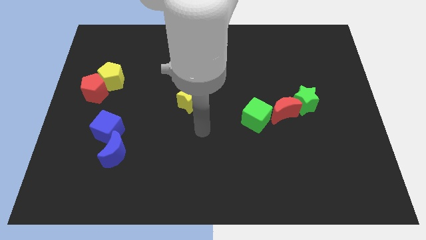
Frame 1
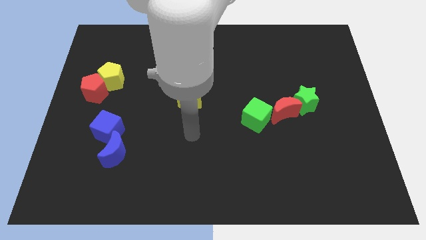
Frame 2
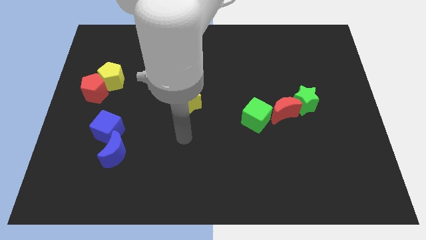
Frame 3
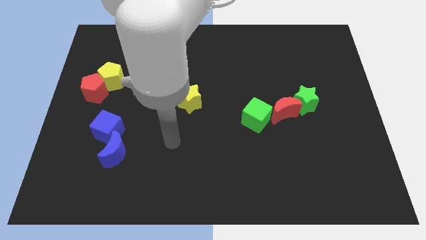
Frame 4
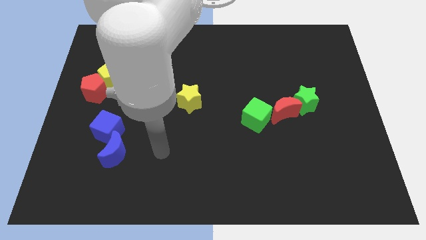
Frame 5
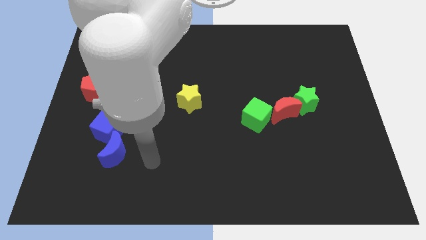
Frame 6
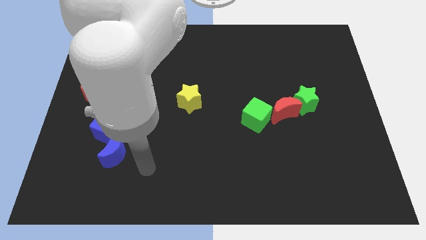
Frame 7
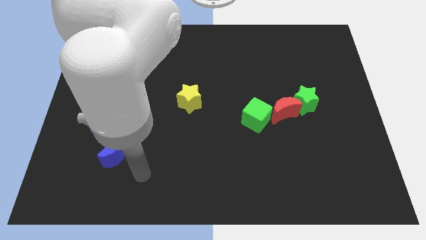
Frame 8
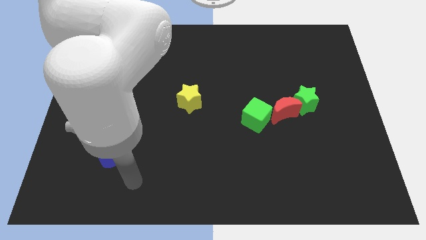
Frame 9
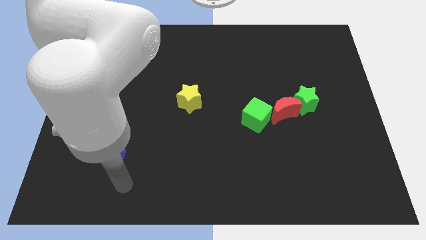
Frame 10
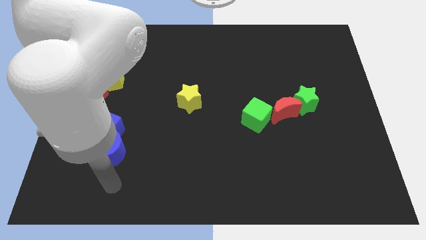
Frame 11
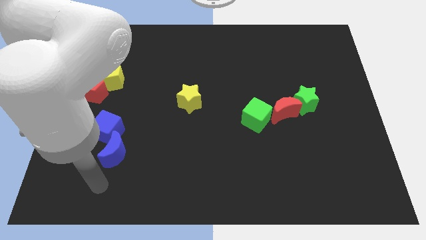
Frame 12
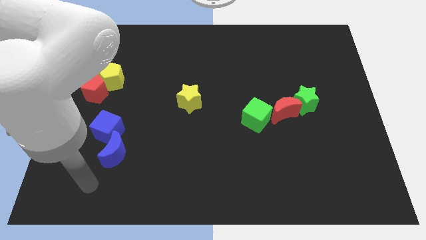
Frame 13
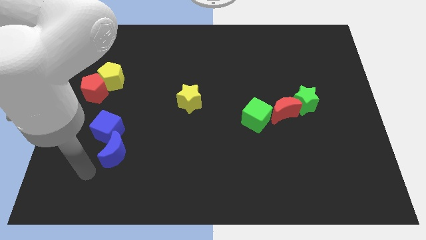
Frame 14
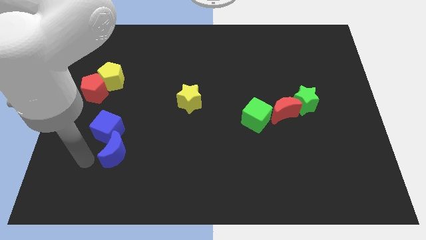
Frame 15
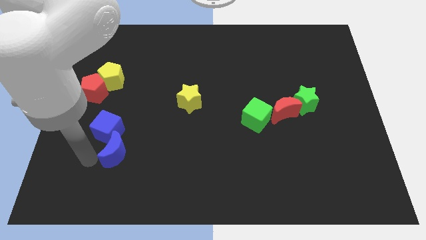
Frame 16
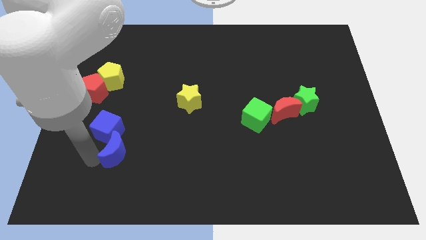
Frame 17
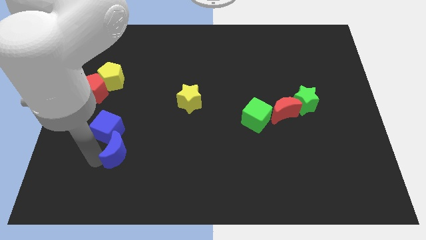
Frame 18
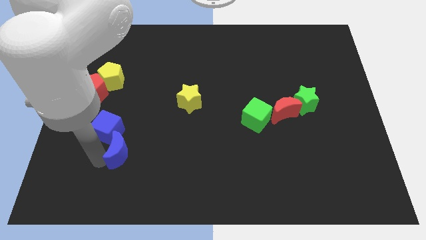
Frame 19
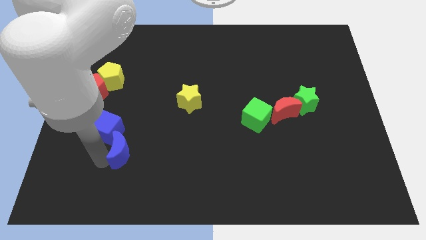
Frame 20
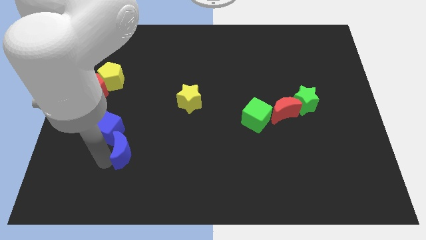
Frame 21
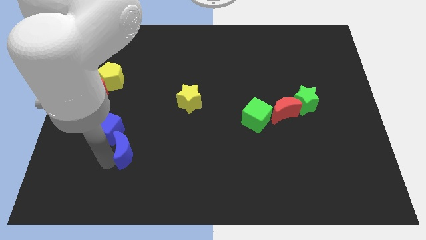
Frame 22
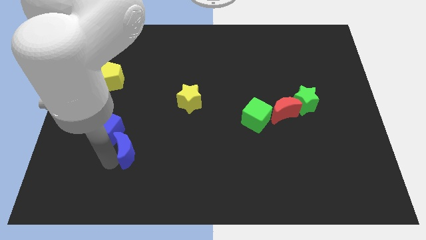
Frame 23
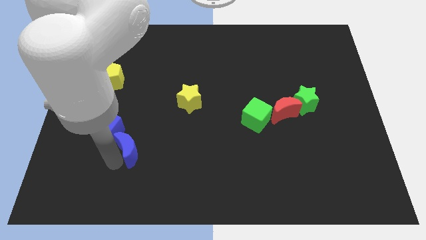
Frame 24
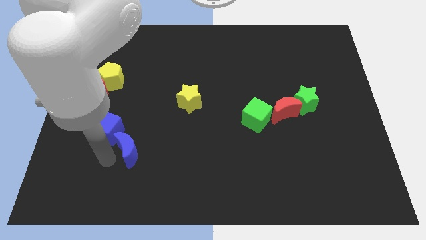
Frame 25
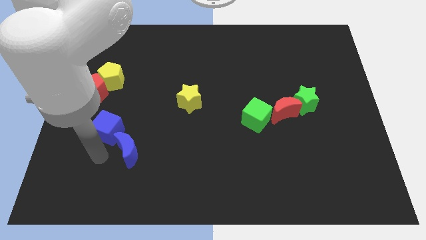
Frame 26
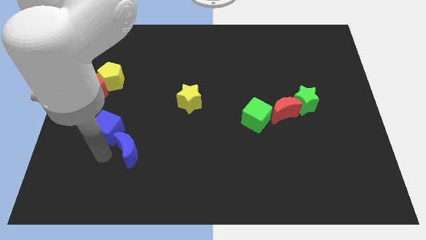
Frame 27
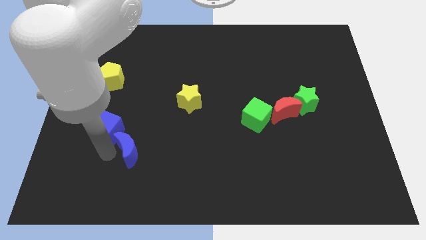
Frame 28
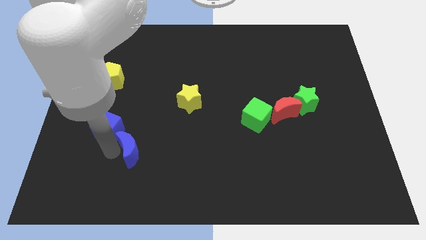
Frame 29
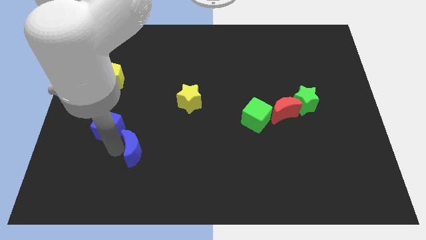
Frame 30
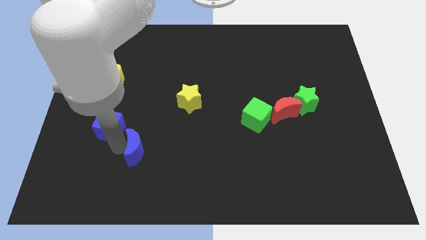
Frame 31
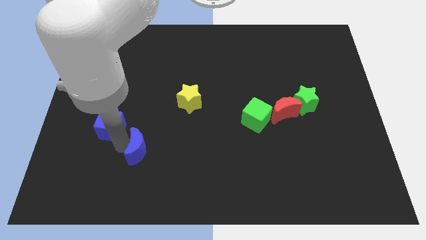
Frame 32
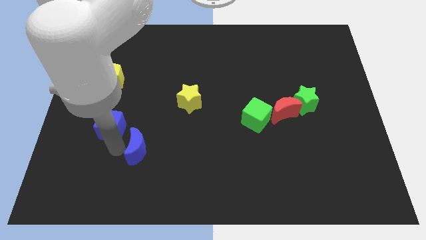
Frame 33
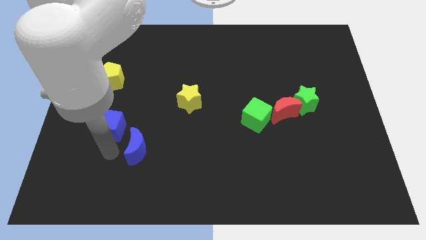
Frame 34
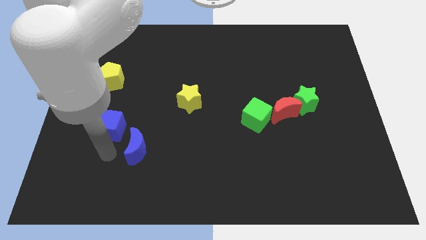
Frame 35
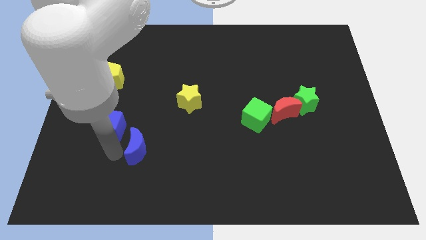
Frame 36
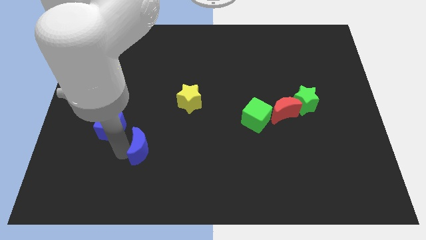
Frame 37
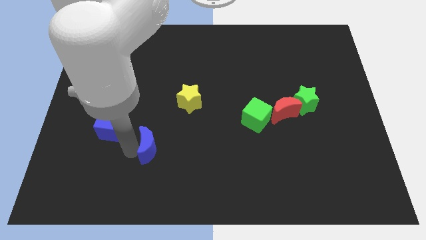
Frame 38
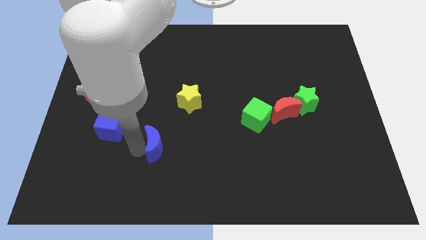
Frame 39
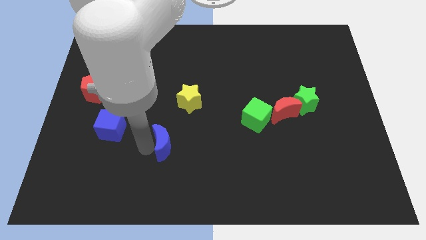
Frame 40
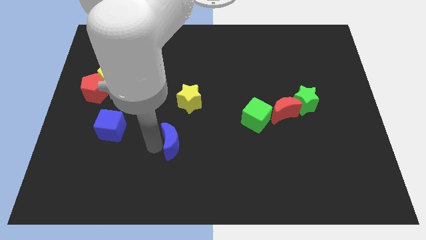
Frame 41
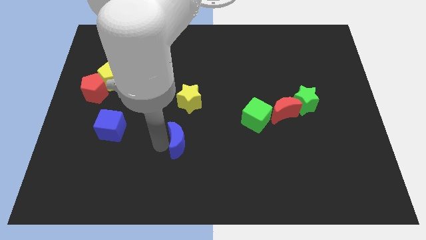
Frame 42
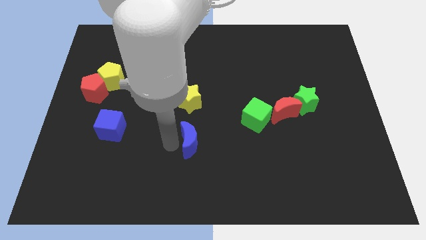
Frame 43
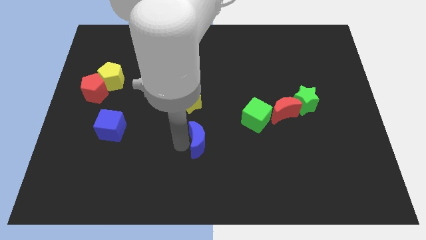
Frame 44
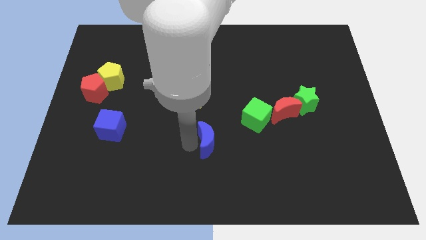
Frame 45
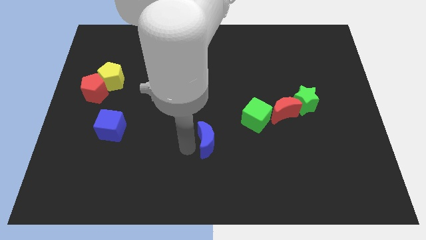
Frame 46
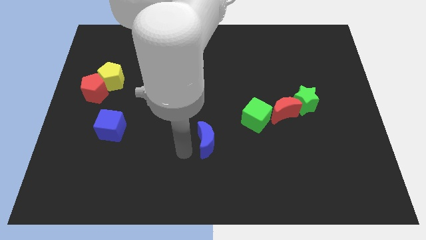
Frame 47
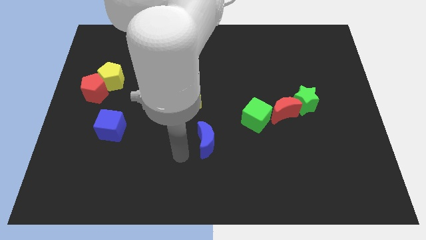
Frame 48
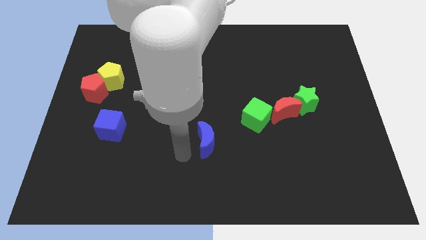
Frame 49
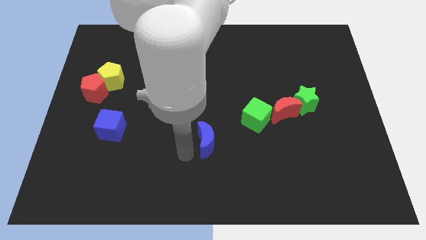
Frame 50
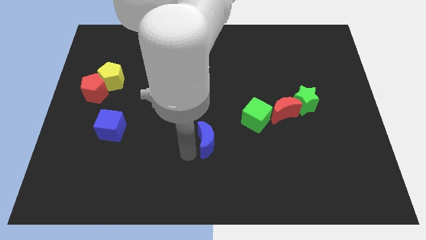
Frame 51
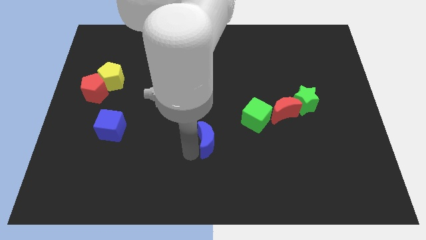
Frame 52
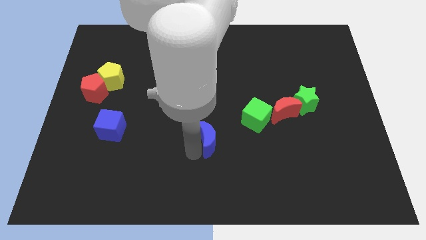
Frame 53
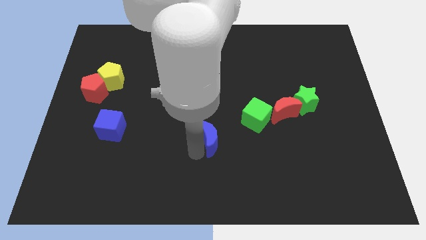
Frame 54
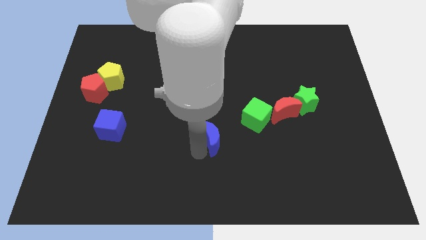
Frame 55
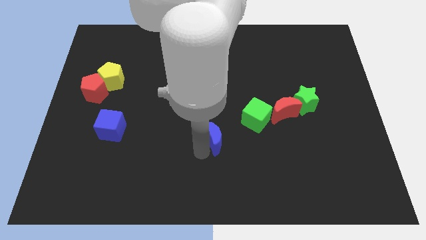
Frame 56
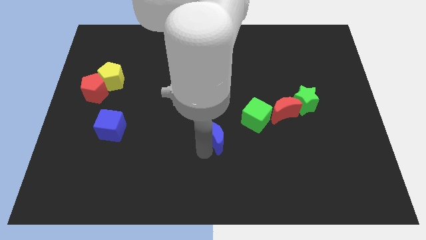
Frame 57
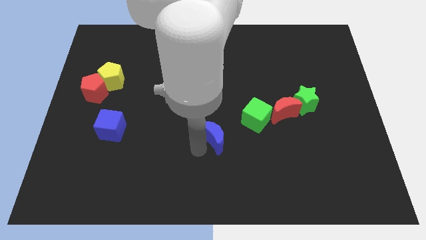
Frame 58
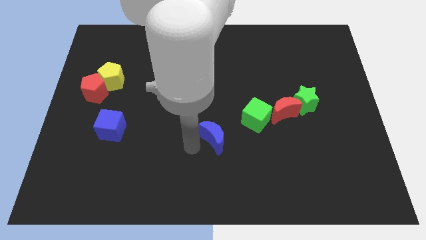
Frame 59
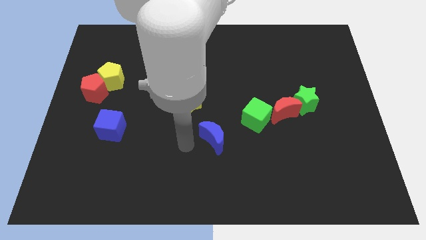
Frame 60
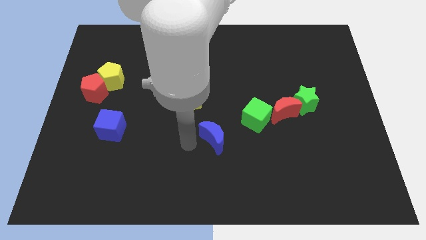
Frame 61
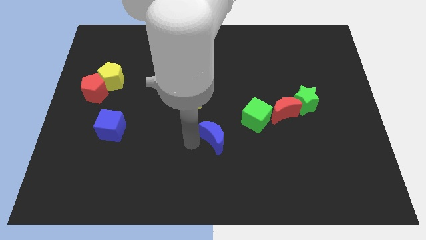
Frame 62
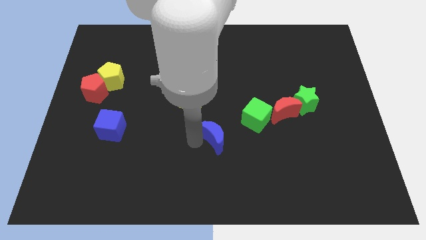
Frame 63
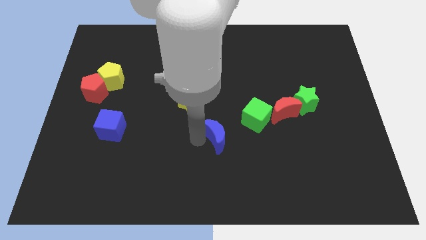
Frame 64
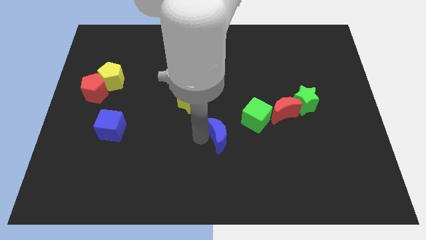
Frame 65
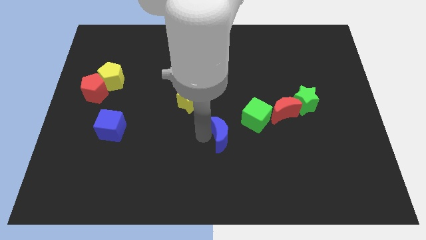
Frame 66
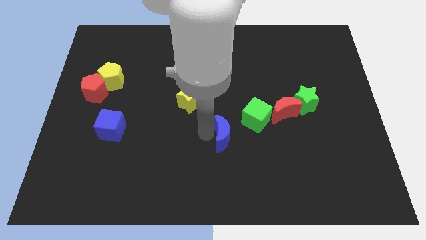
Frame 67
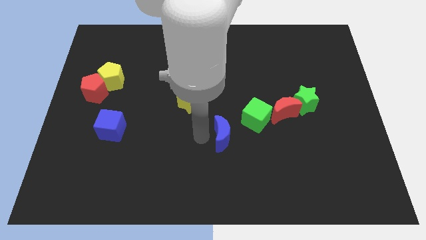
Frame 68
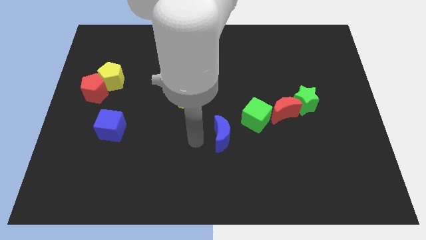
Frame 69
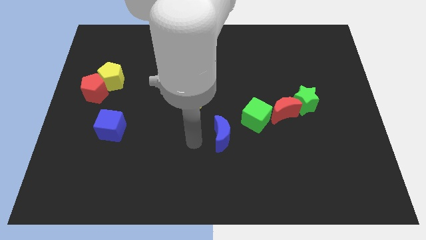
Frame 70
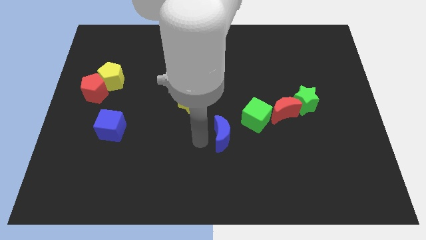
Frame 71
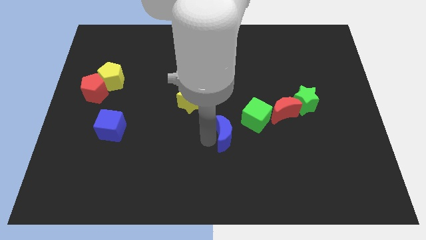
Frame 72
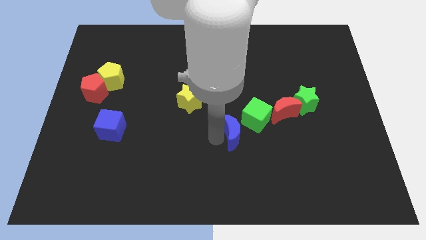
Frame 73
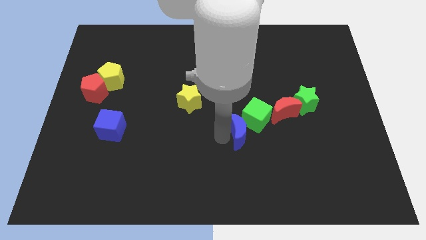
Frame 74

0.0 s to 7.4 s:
push the blue moon to the bottom left of the red moon
